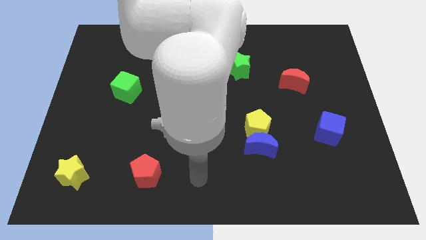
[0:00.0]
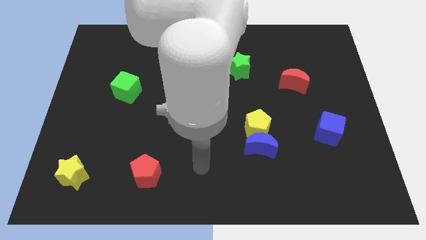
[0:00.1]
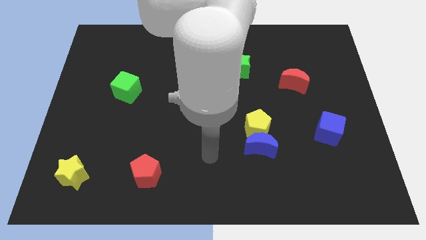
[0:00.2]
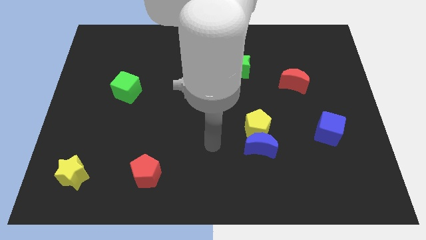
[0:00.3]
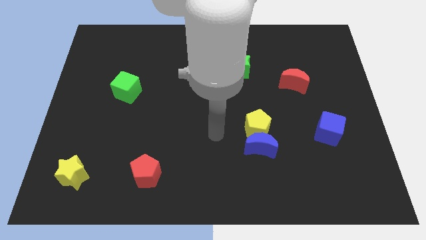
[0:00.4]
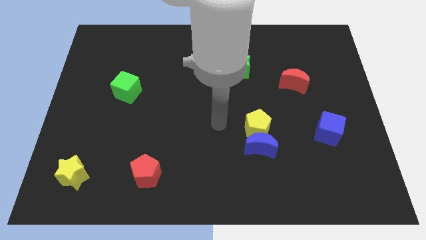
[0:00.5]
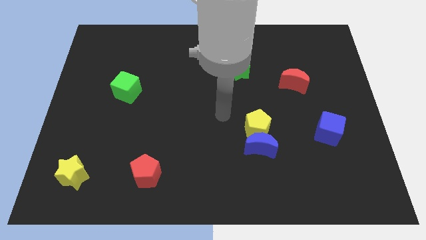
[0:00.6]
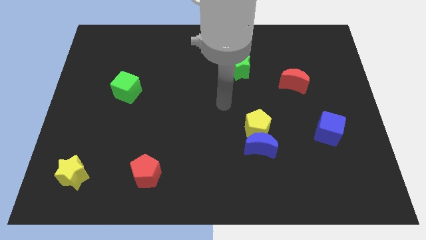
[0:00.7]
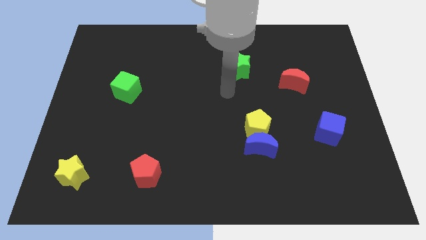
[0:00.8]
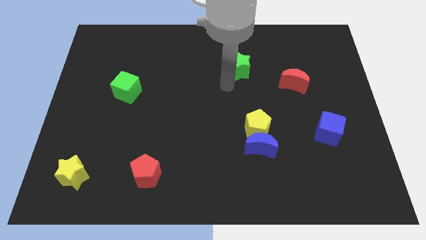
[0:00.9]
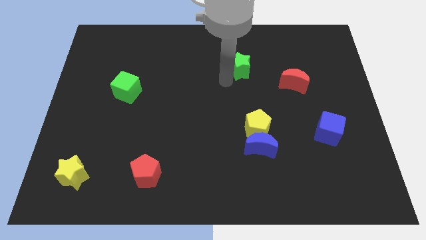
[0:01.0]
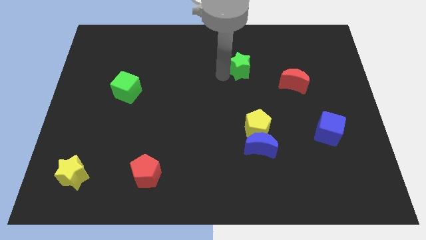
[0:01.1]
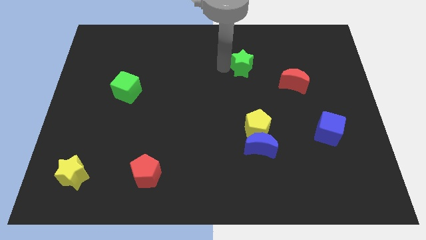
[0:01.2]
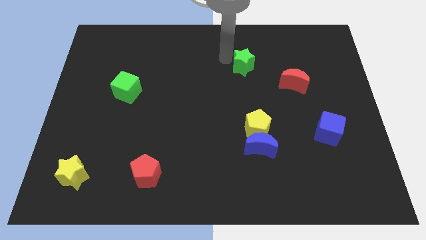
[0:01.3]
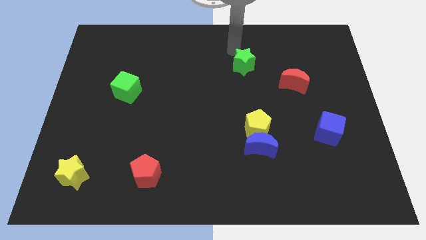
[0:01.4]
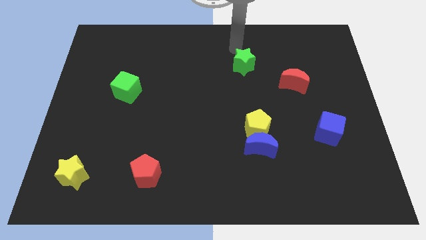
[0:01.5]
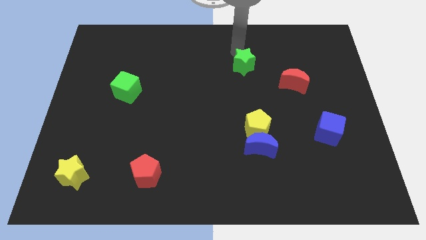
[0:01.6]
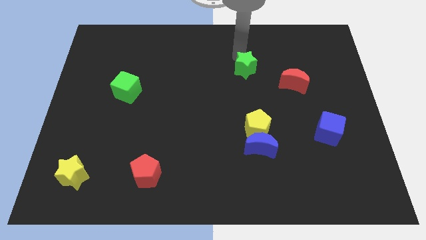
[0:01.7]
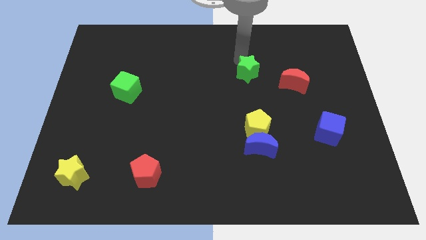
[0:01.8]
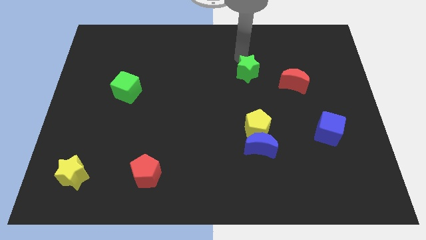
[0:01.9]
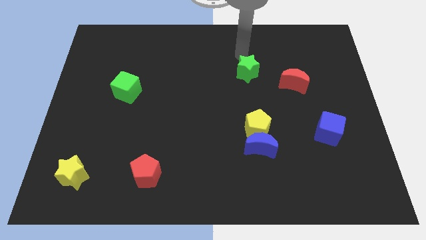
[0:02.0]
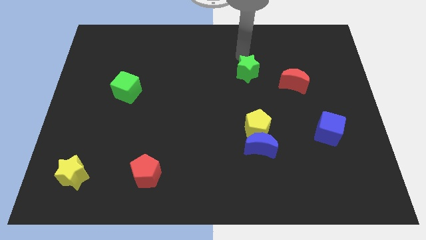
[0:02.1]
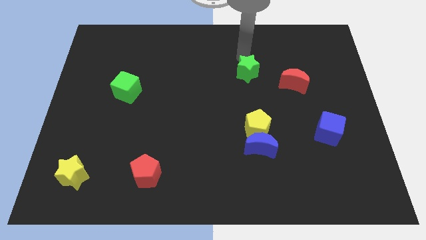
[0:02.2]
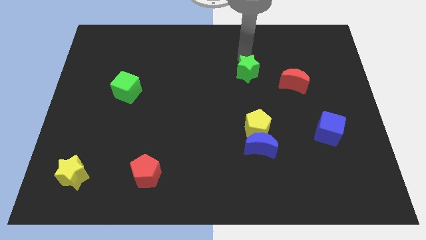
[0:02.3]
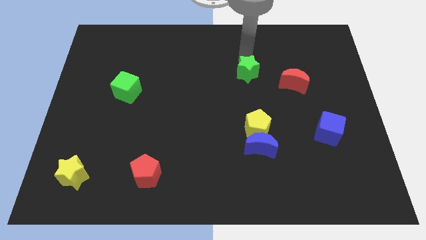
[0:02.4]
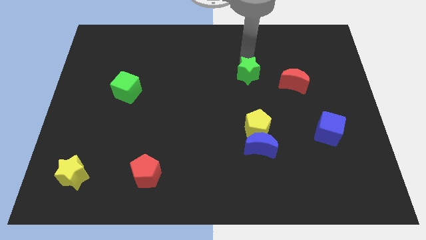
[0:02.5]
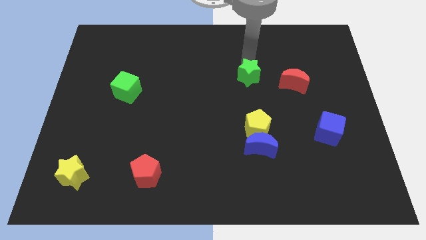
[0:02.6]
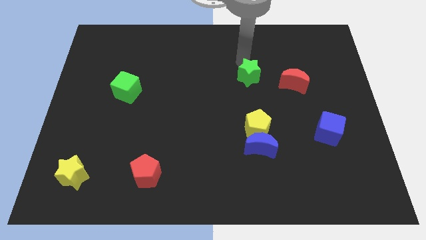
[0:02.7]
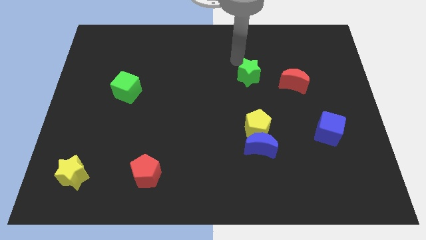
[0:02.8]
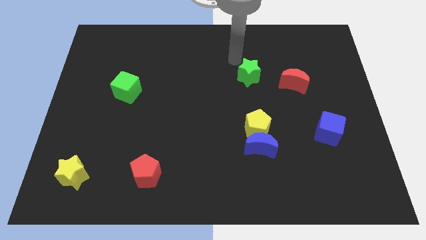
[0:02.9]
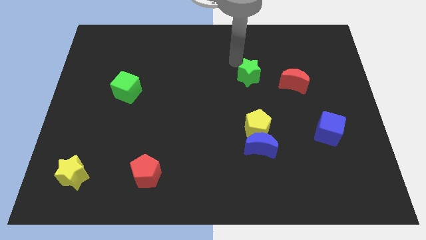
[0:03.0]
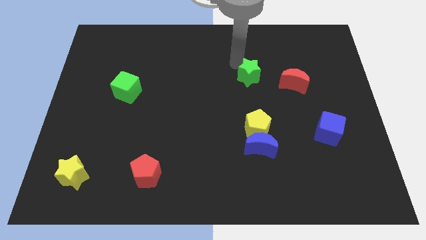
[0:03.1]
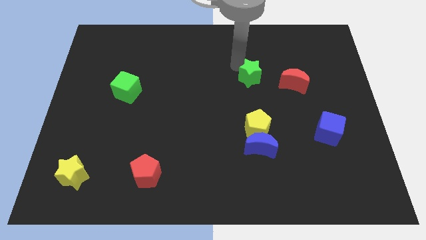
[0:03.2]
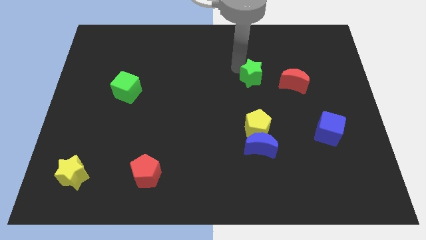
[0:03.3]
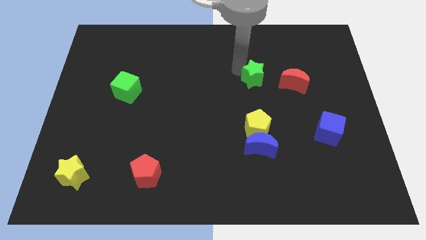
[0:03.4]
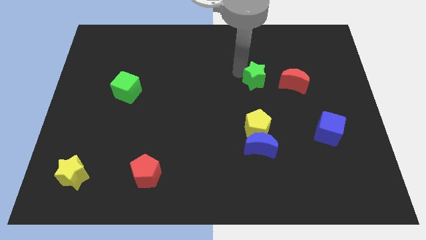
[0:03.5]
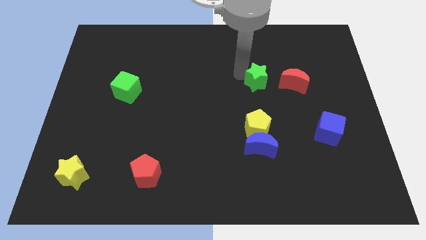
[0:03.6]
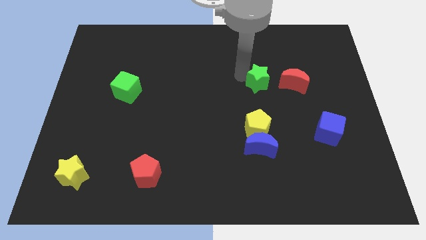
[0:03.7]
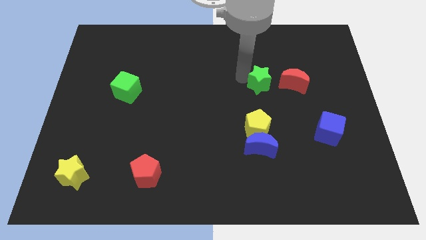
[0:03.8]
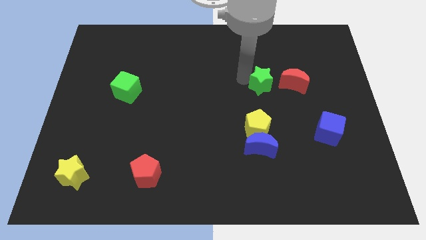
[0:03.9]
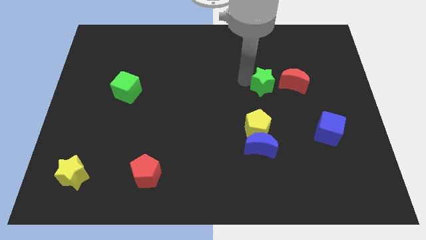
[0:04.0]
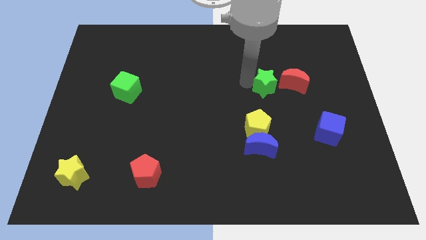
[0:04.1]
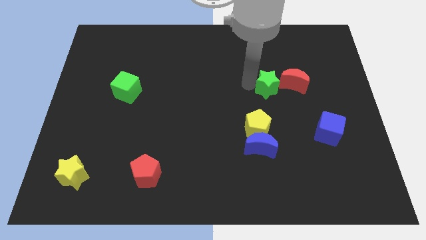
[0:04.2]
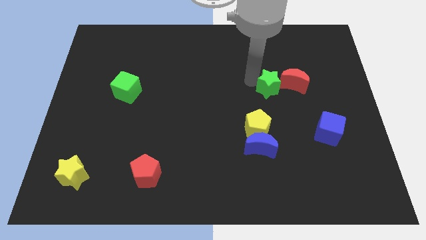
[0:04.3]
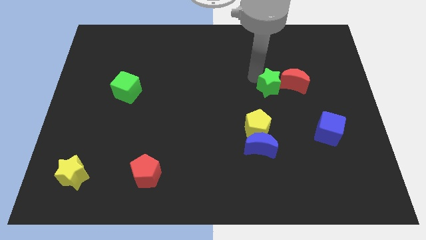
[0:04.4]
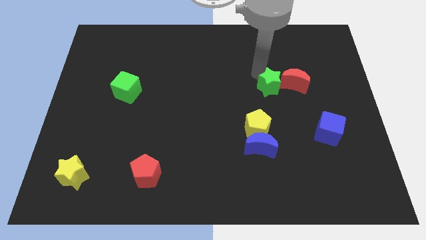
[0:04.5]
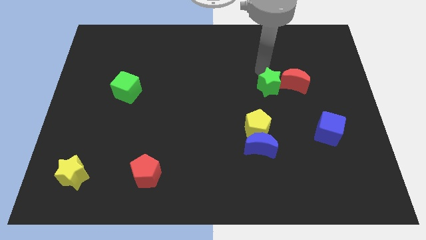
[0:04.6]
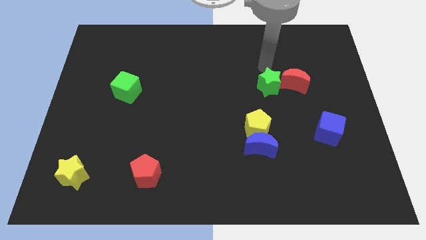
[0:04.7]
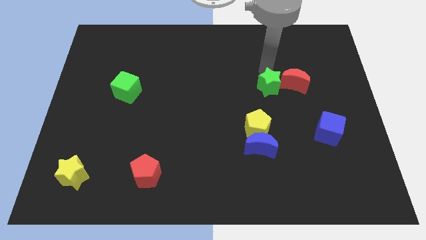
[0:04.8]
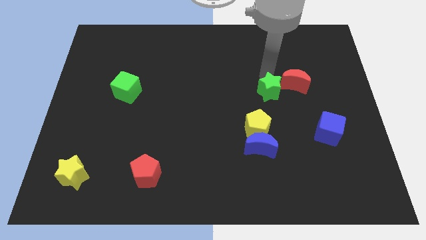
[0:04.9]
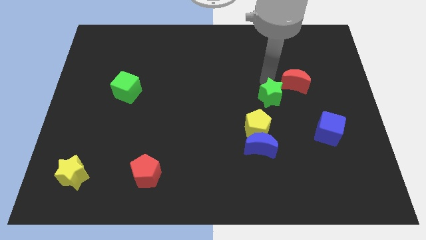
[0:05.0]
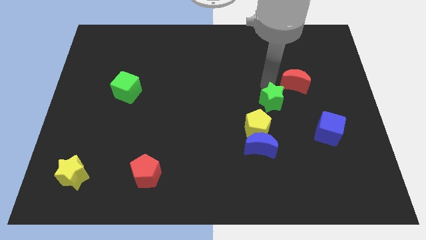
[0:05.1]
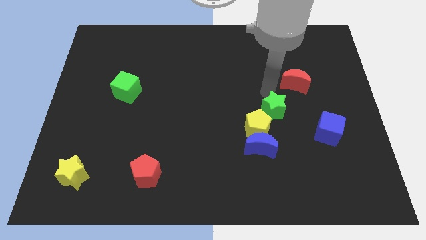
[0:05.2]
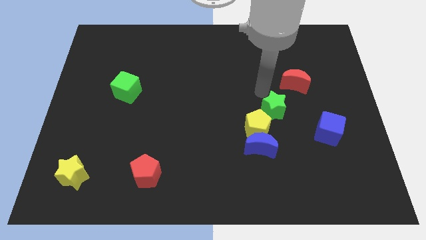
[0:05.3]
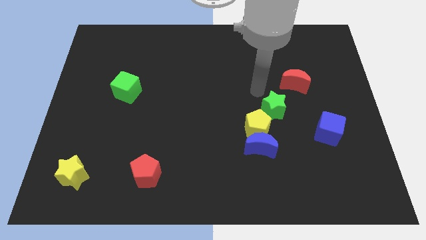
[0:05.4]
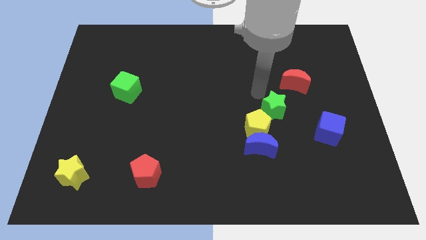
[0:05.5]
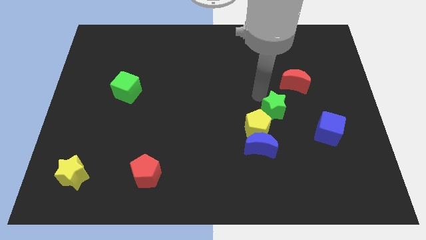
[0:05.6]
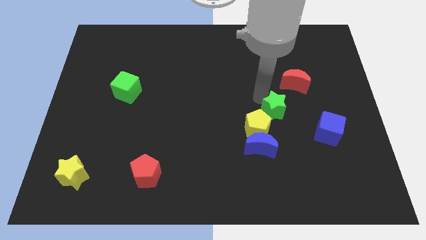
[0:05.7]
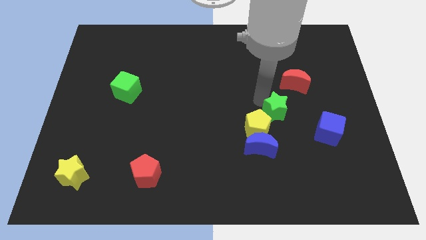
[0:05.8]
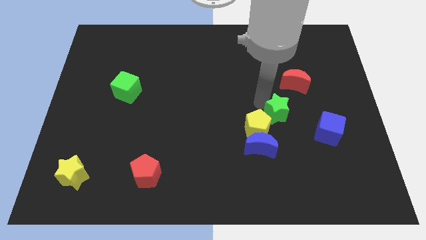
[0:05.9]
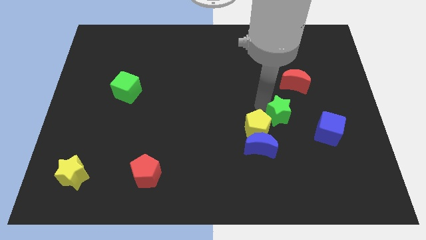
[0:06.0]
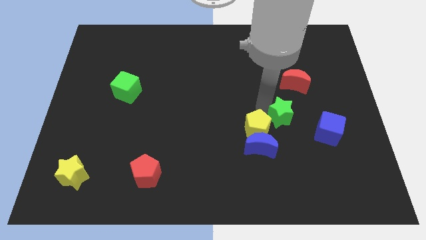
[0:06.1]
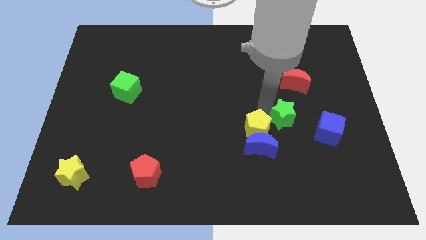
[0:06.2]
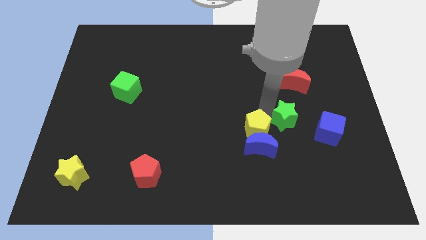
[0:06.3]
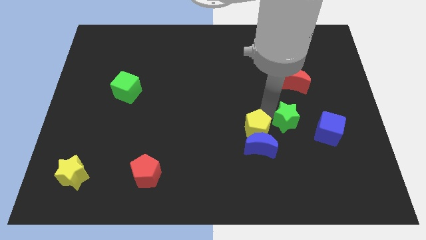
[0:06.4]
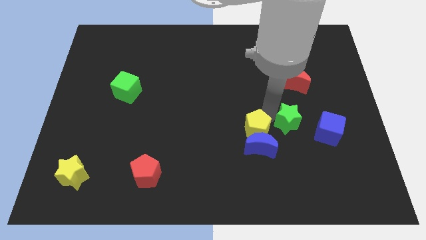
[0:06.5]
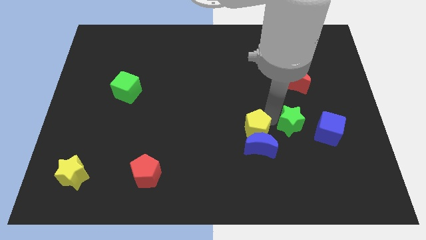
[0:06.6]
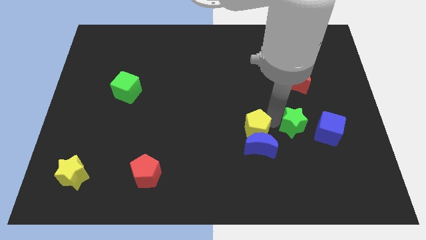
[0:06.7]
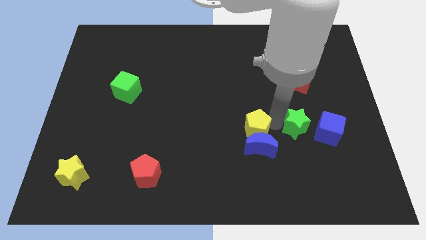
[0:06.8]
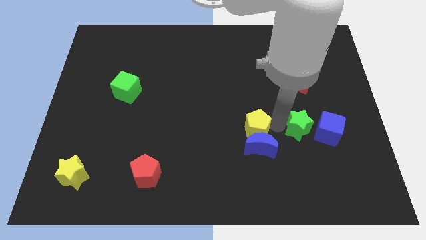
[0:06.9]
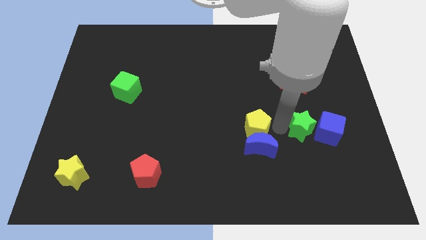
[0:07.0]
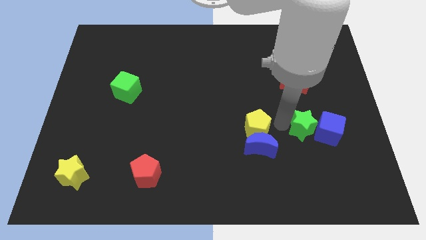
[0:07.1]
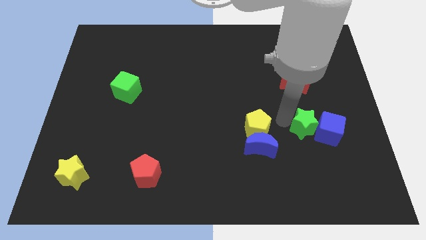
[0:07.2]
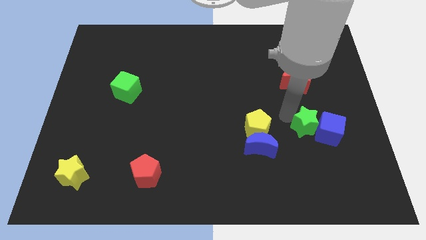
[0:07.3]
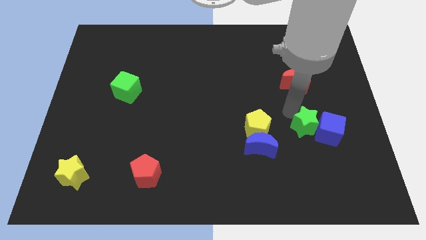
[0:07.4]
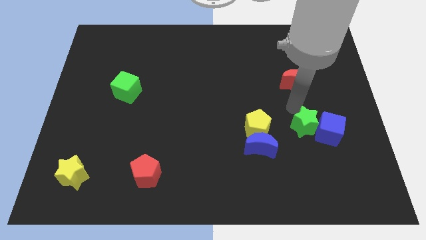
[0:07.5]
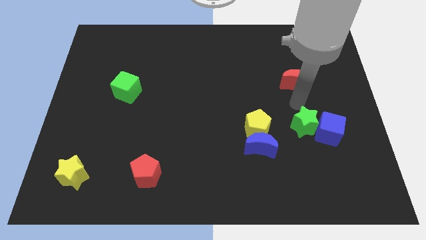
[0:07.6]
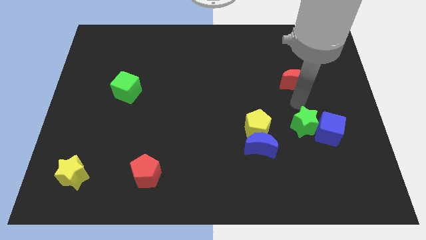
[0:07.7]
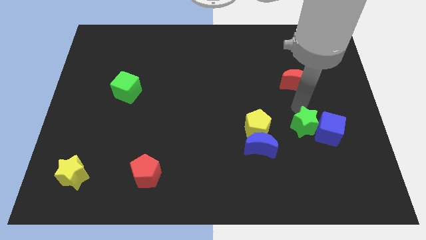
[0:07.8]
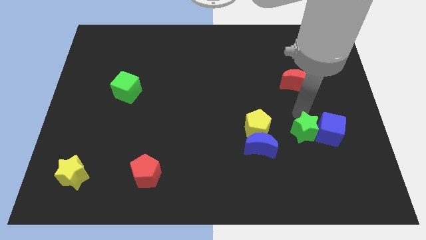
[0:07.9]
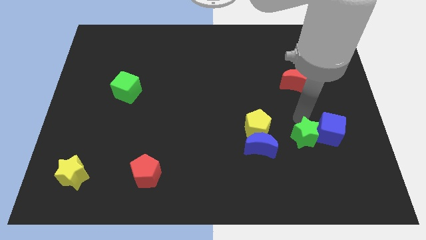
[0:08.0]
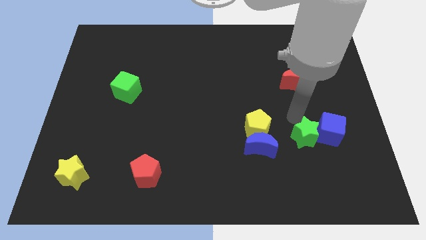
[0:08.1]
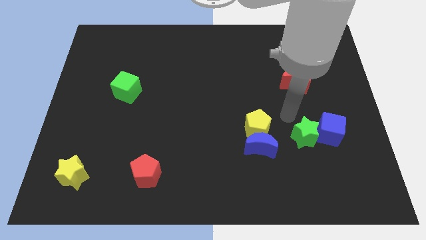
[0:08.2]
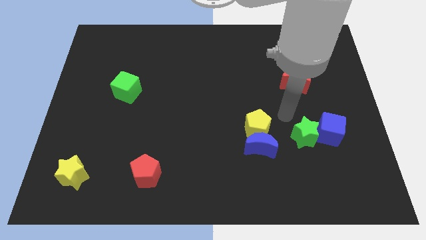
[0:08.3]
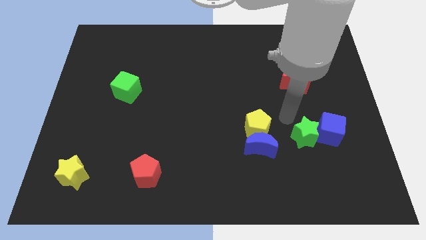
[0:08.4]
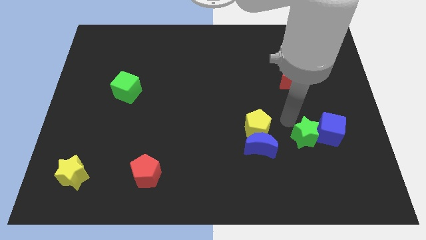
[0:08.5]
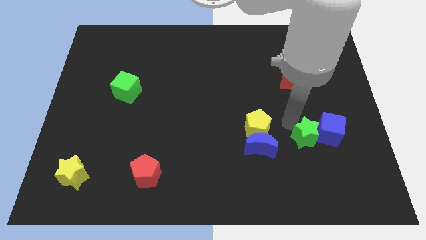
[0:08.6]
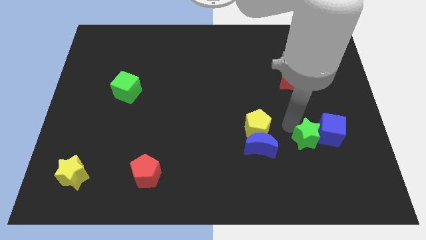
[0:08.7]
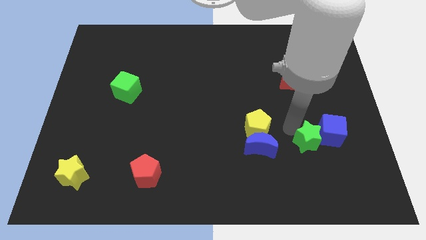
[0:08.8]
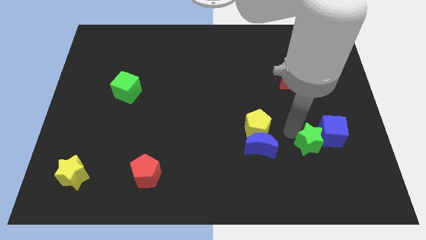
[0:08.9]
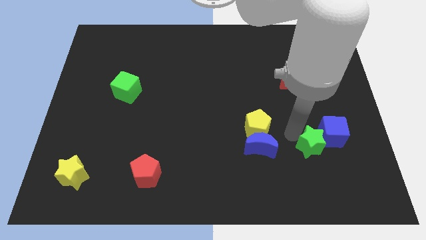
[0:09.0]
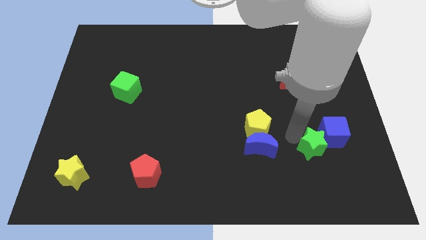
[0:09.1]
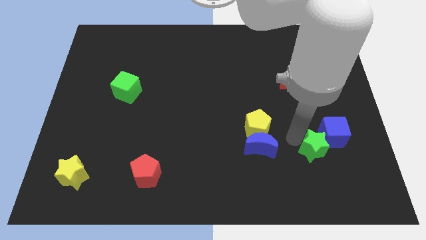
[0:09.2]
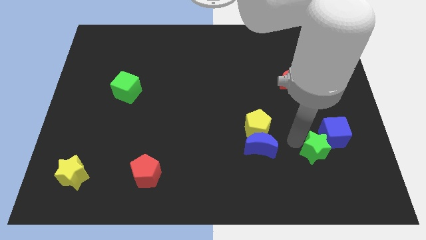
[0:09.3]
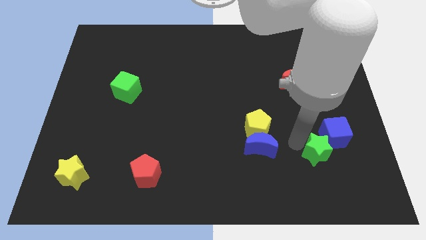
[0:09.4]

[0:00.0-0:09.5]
put the green star to the bottom of the blue cube
